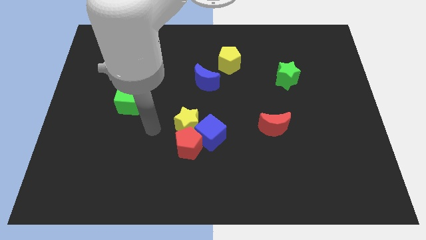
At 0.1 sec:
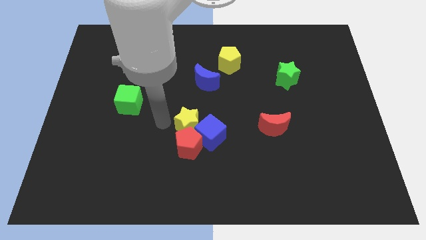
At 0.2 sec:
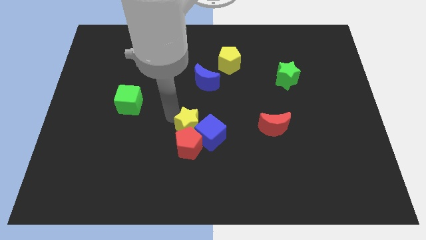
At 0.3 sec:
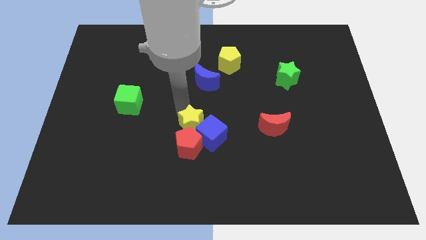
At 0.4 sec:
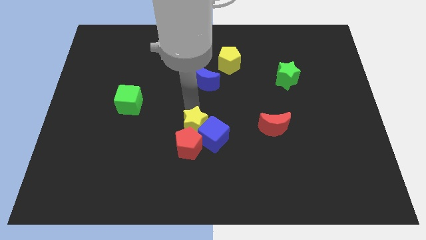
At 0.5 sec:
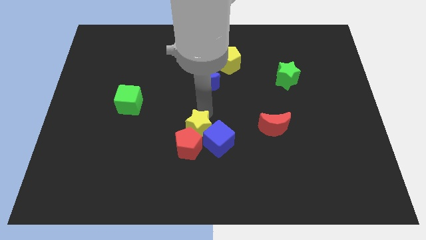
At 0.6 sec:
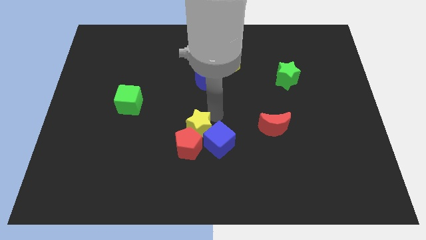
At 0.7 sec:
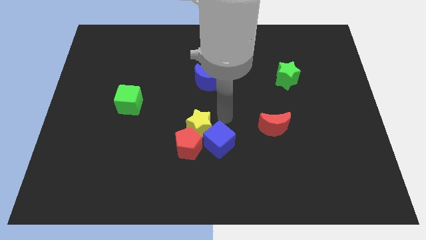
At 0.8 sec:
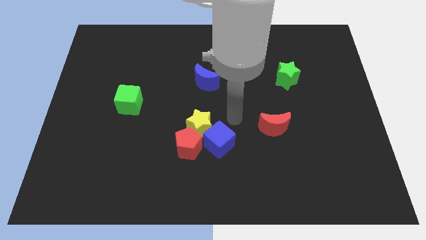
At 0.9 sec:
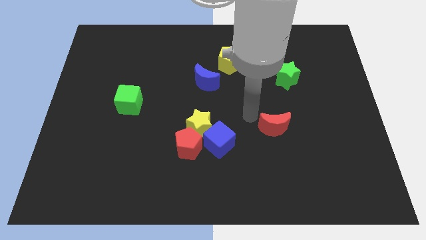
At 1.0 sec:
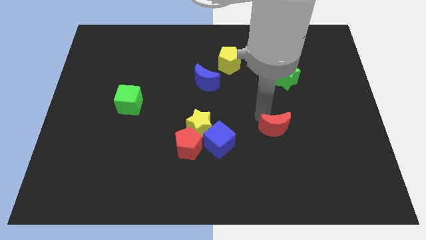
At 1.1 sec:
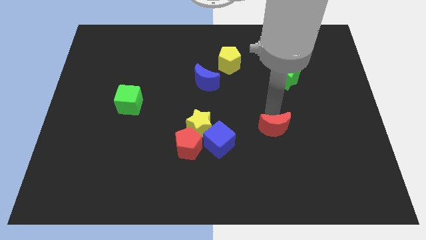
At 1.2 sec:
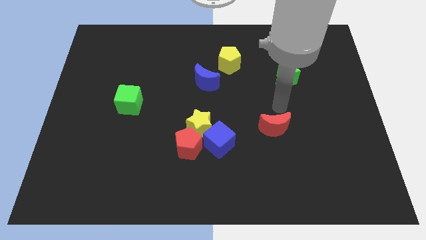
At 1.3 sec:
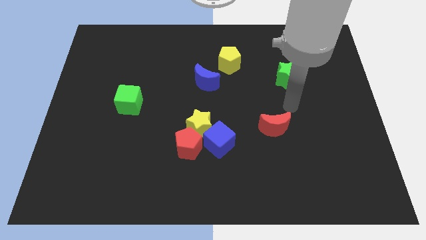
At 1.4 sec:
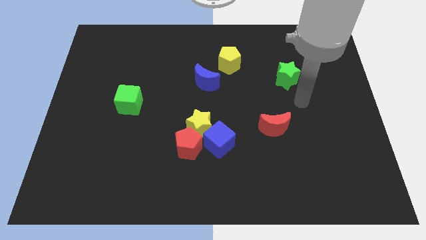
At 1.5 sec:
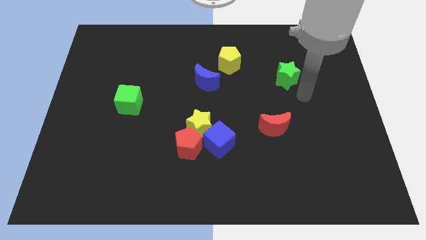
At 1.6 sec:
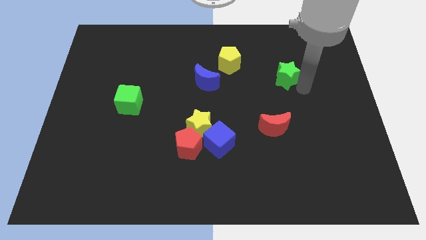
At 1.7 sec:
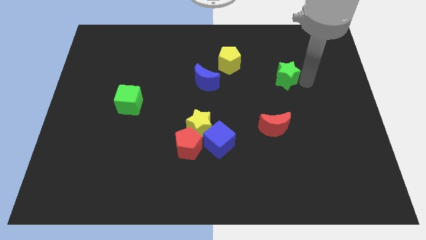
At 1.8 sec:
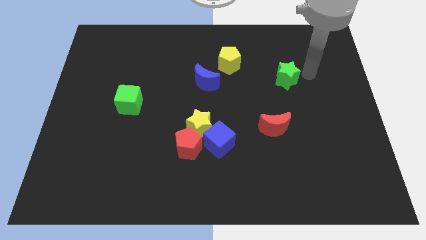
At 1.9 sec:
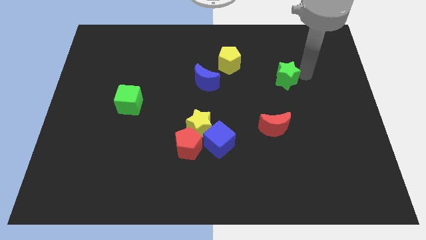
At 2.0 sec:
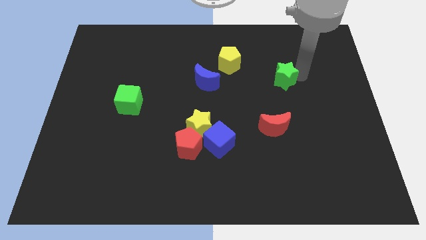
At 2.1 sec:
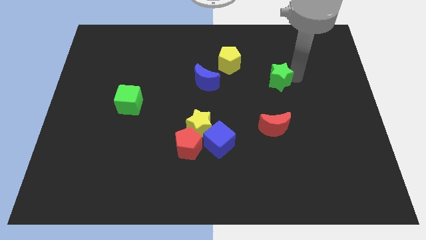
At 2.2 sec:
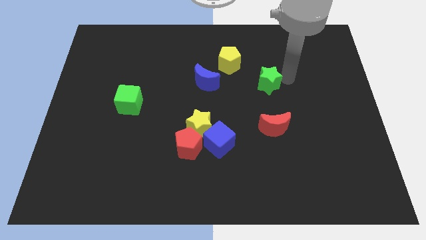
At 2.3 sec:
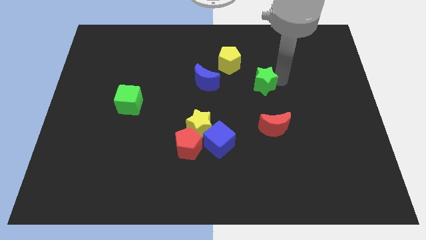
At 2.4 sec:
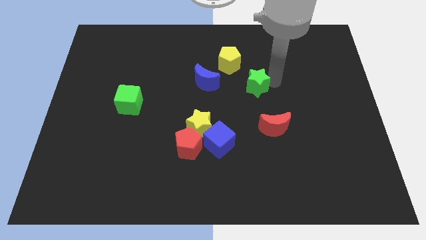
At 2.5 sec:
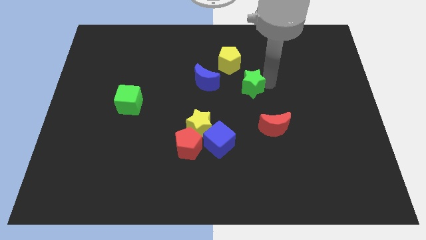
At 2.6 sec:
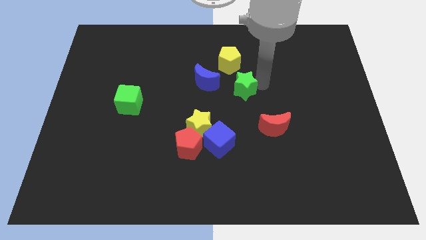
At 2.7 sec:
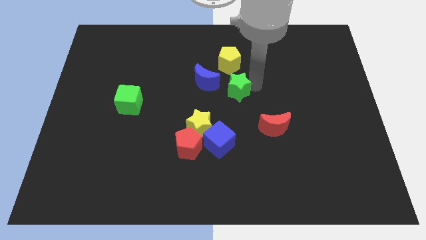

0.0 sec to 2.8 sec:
push the green star diagonally down and to the right of the blue moon

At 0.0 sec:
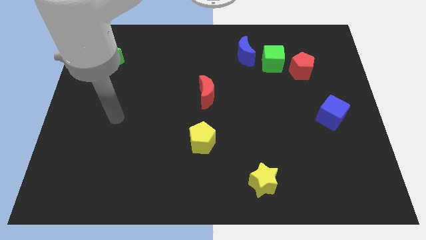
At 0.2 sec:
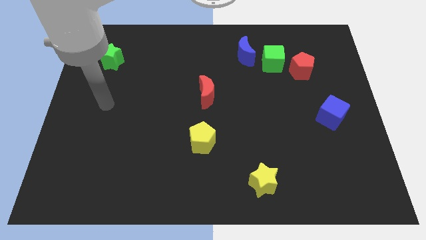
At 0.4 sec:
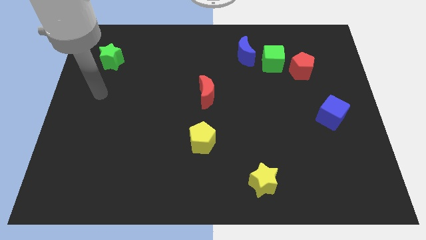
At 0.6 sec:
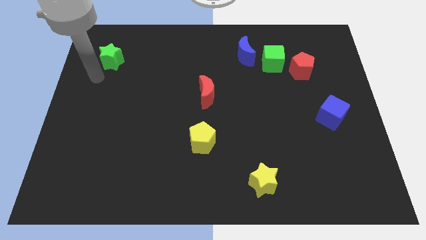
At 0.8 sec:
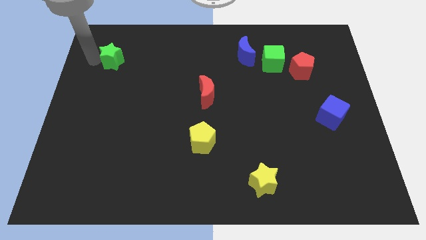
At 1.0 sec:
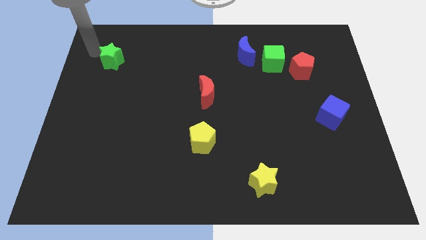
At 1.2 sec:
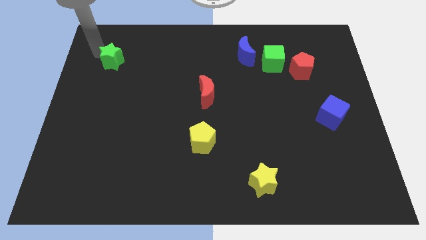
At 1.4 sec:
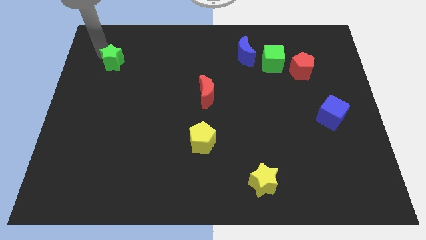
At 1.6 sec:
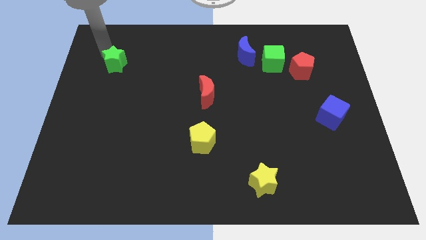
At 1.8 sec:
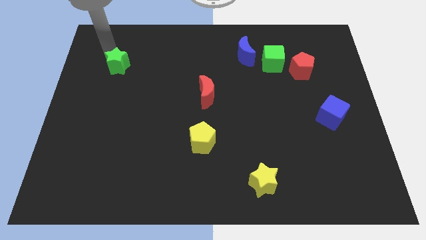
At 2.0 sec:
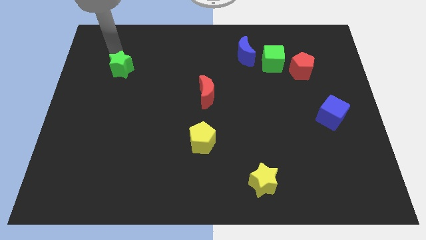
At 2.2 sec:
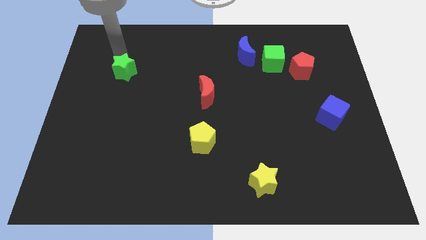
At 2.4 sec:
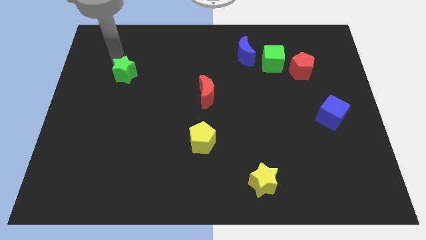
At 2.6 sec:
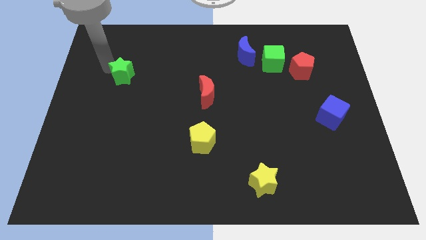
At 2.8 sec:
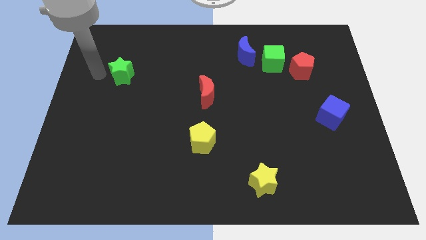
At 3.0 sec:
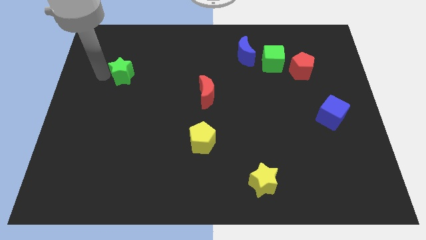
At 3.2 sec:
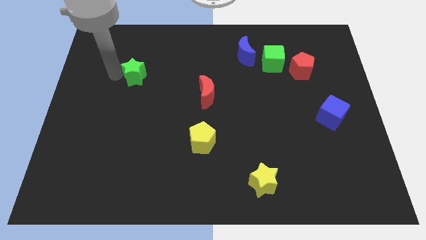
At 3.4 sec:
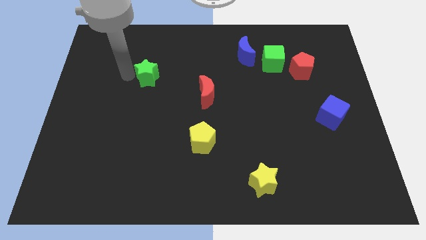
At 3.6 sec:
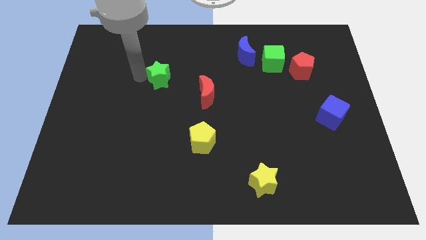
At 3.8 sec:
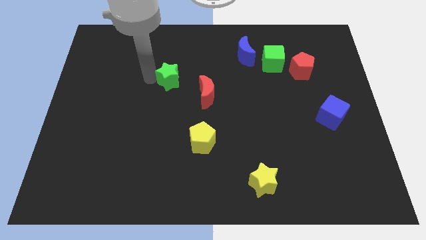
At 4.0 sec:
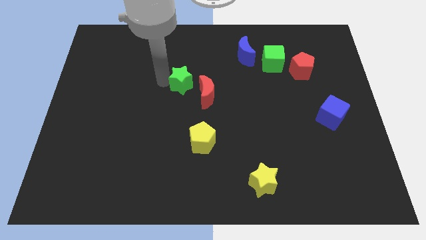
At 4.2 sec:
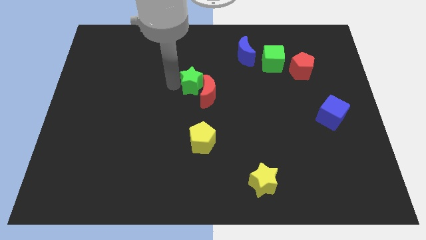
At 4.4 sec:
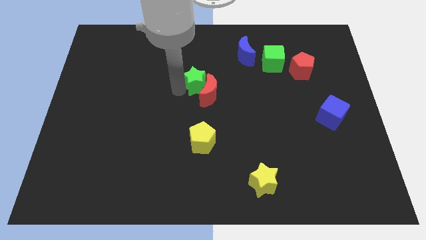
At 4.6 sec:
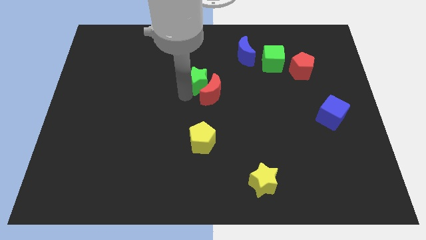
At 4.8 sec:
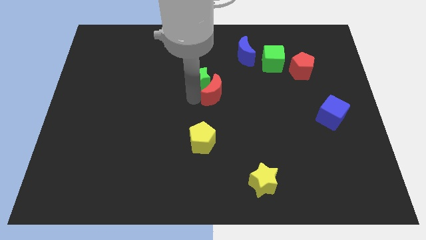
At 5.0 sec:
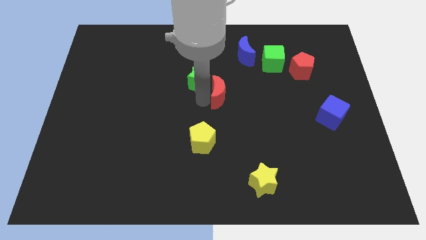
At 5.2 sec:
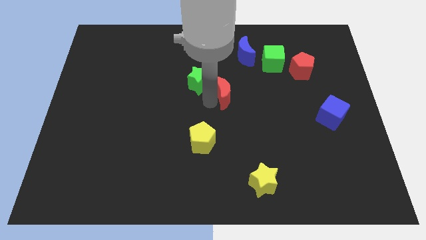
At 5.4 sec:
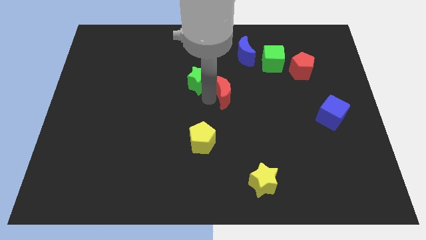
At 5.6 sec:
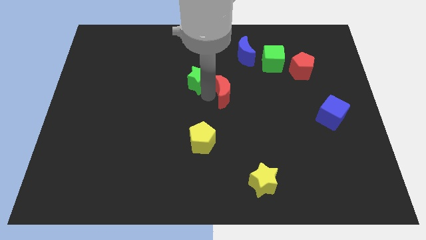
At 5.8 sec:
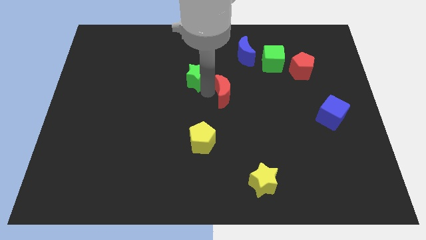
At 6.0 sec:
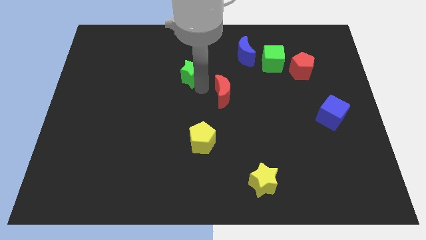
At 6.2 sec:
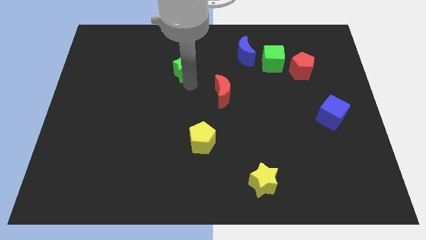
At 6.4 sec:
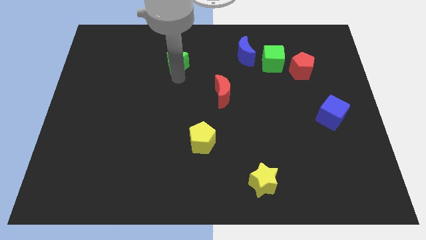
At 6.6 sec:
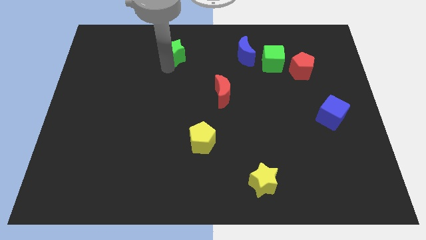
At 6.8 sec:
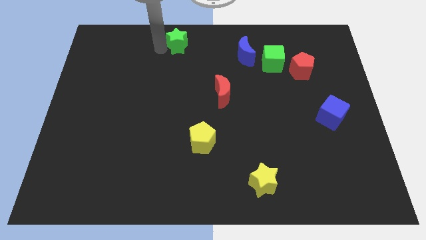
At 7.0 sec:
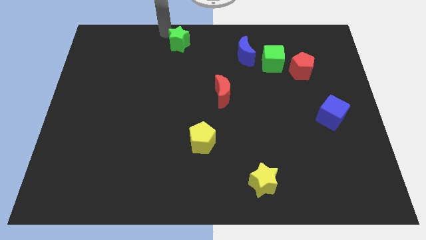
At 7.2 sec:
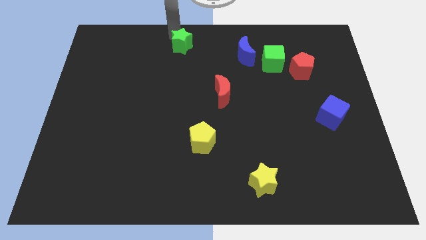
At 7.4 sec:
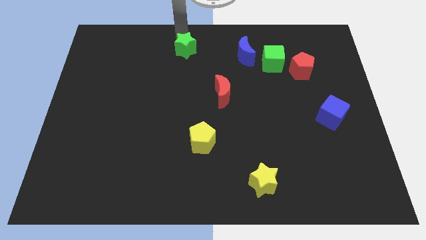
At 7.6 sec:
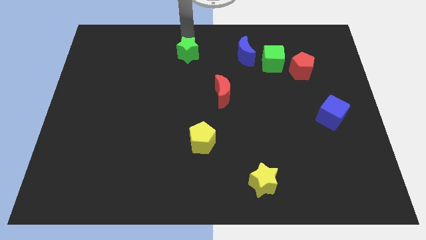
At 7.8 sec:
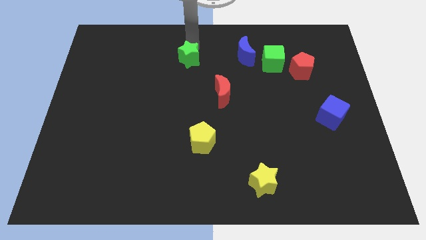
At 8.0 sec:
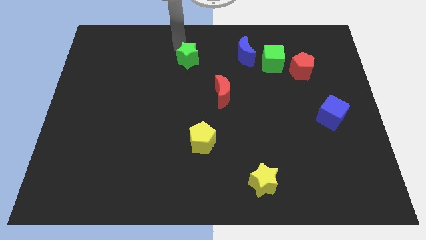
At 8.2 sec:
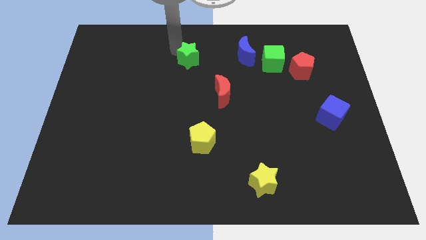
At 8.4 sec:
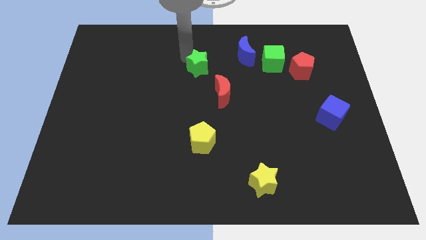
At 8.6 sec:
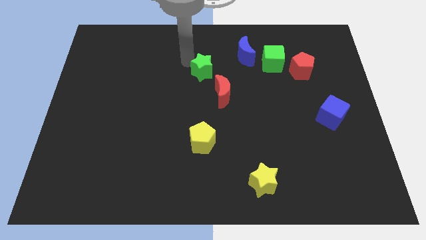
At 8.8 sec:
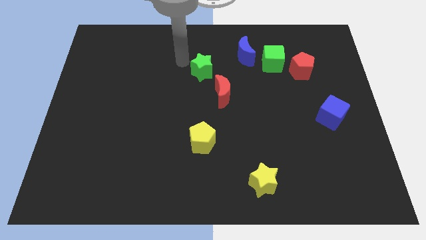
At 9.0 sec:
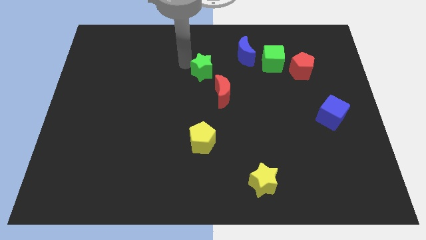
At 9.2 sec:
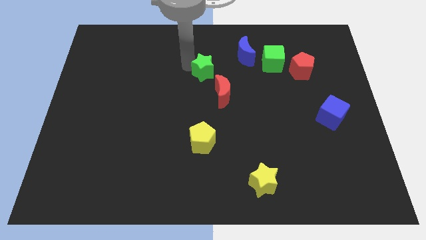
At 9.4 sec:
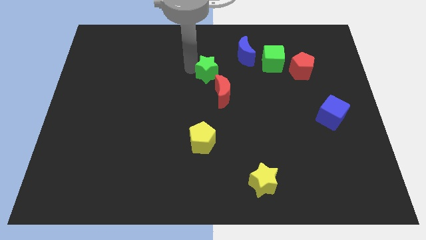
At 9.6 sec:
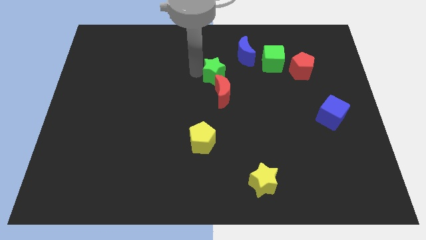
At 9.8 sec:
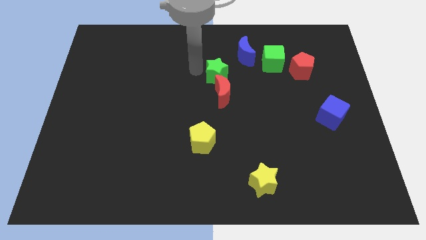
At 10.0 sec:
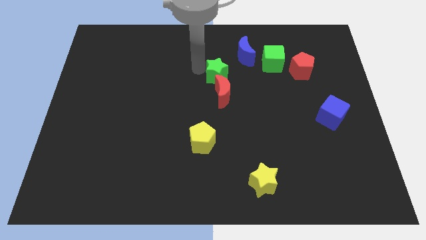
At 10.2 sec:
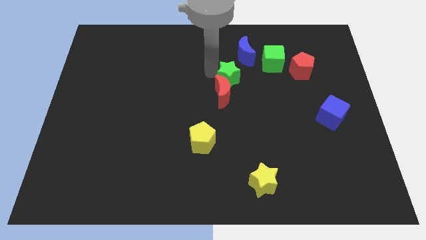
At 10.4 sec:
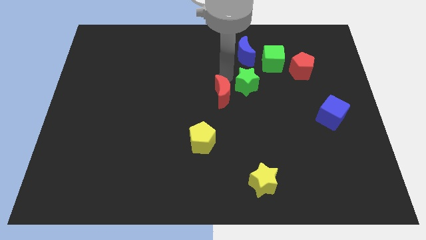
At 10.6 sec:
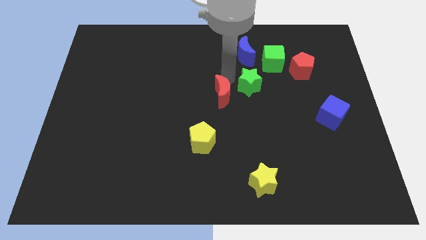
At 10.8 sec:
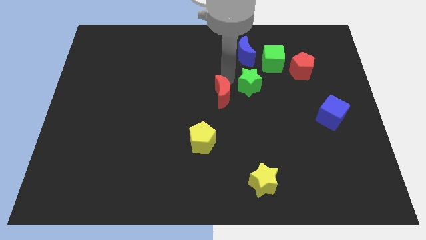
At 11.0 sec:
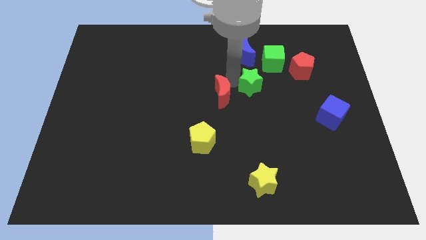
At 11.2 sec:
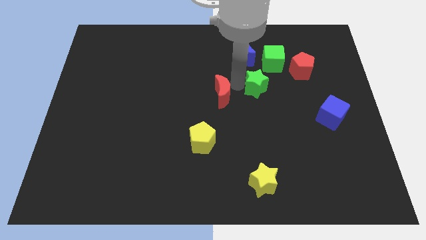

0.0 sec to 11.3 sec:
move the green star to the bottom side of the green cube
